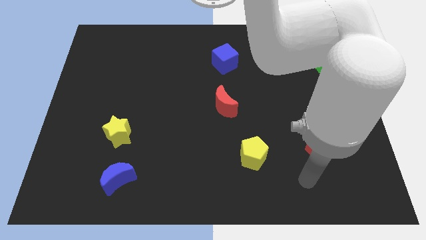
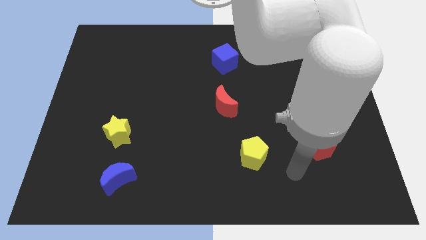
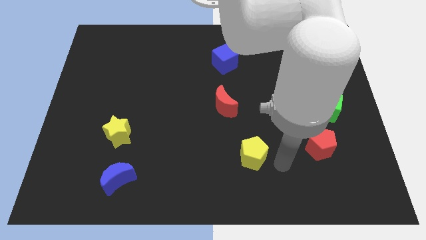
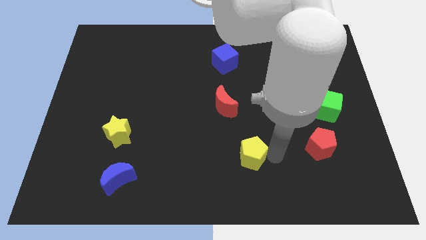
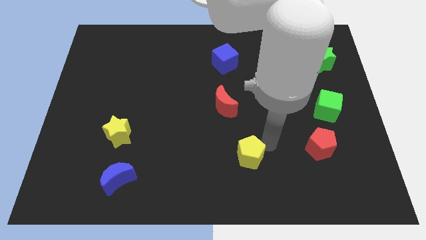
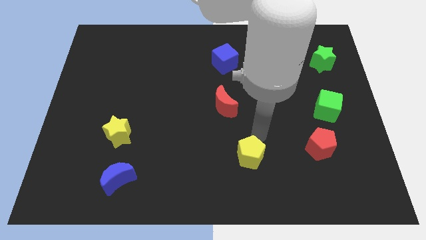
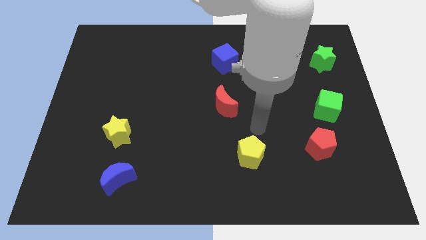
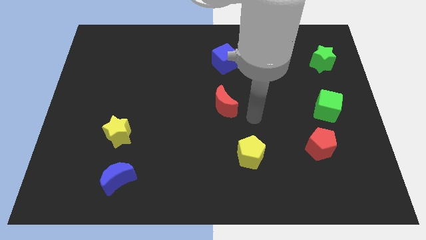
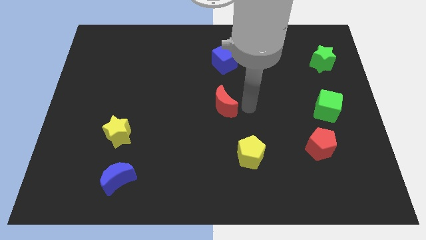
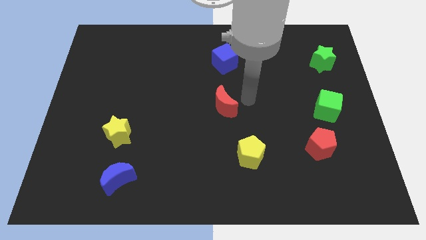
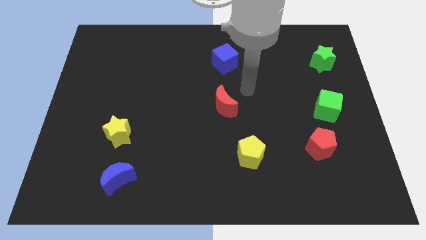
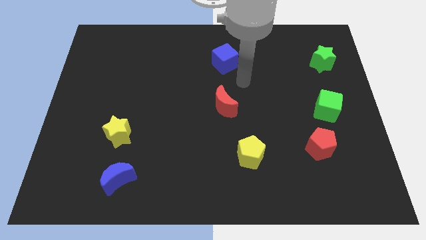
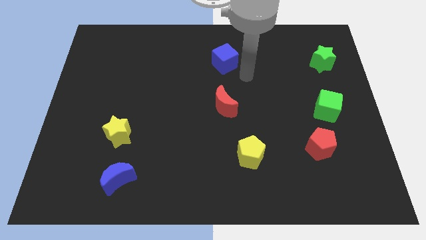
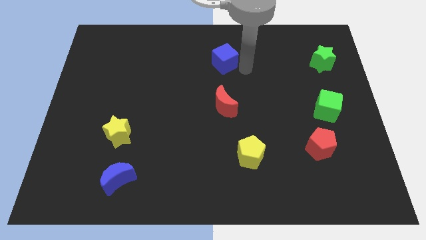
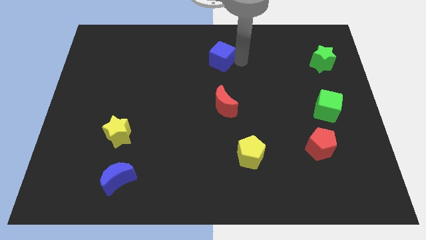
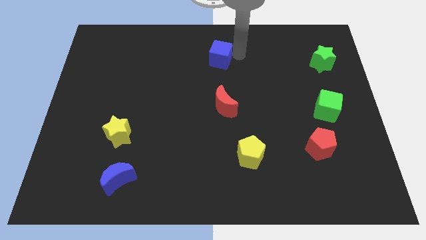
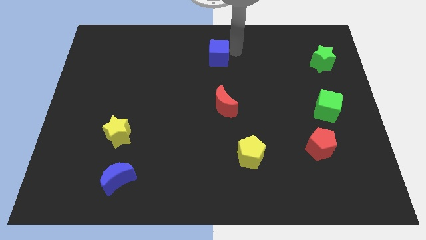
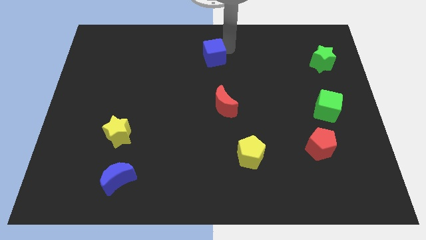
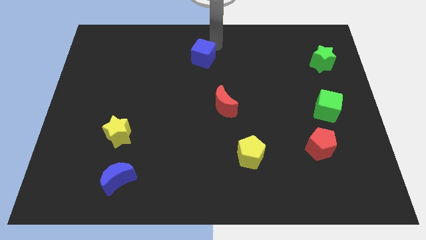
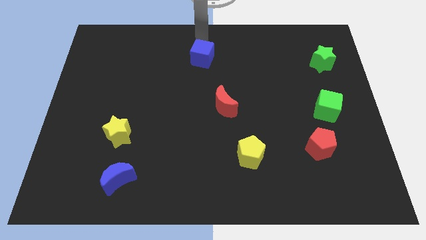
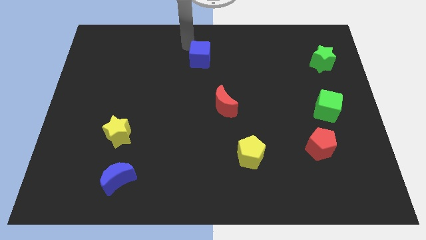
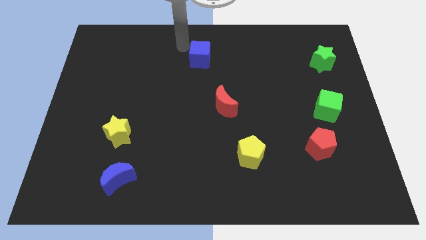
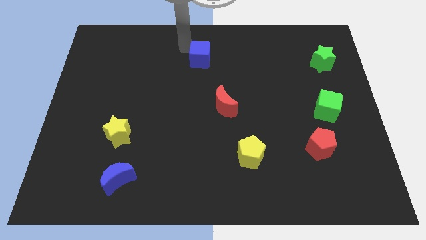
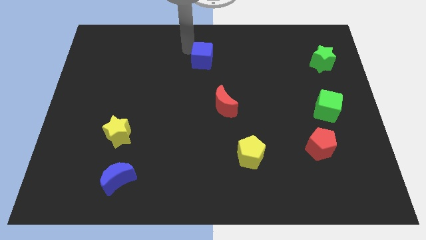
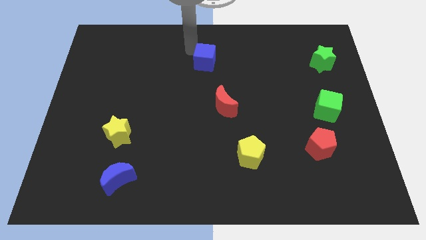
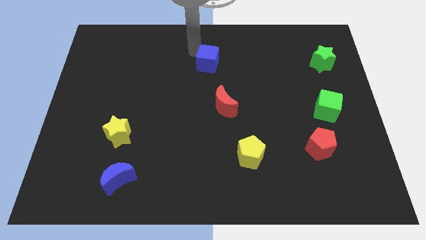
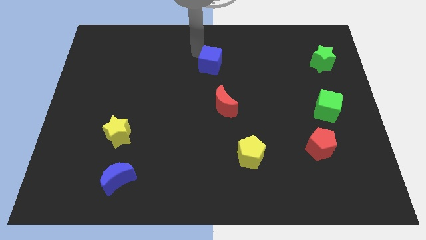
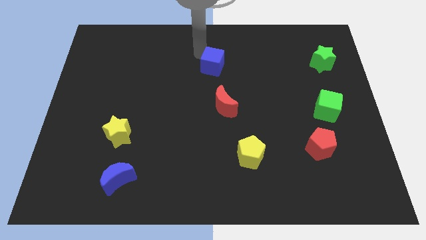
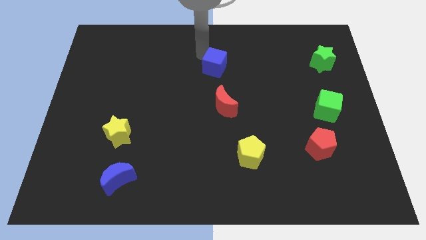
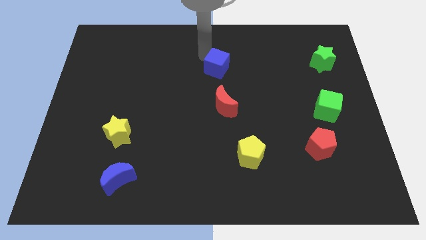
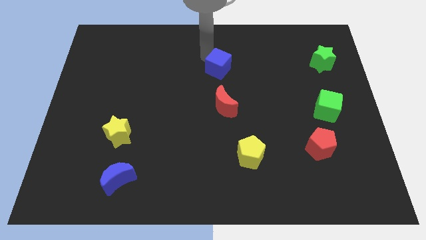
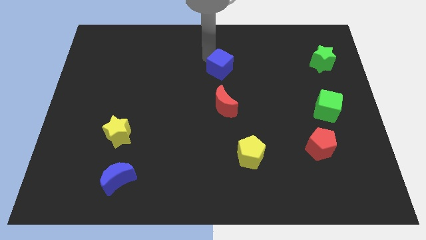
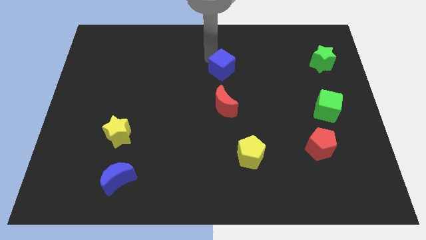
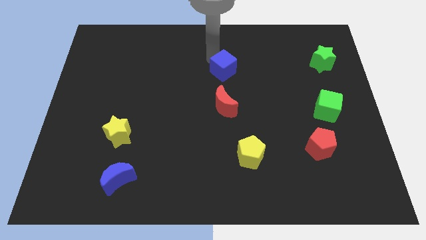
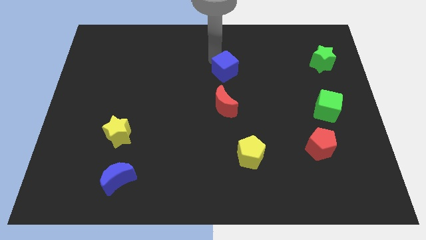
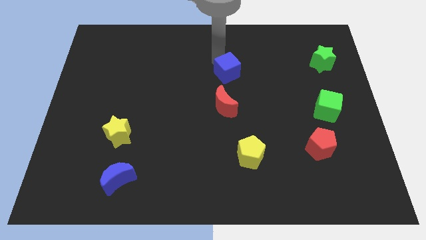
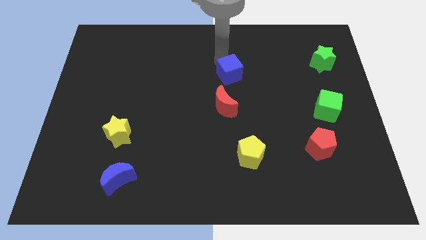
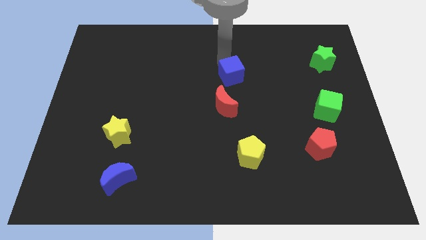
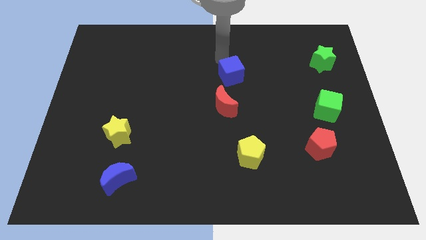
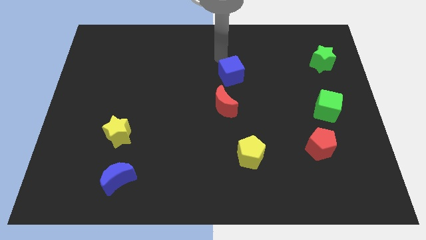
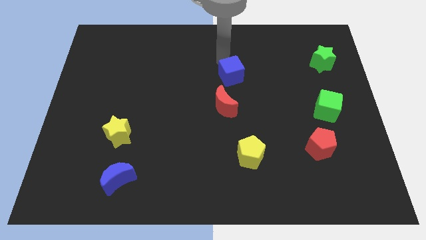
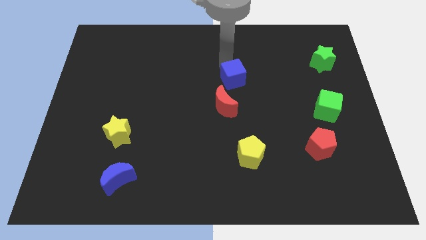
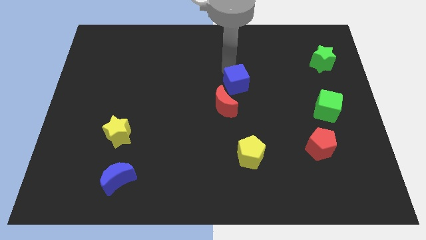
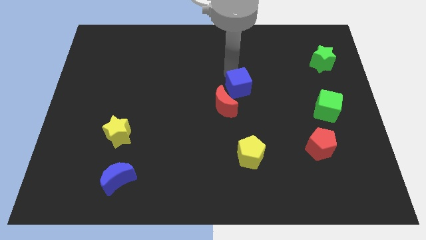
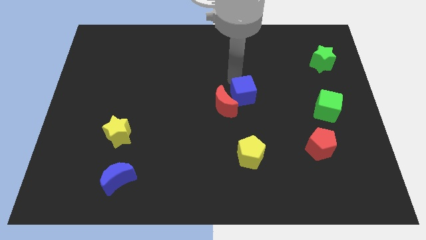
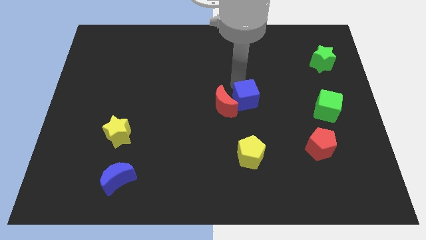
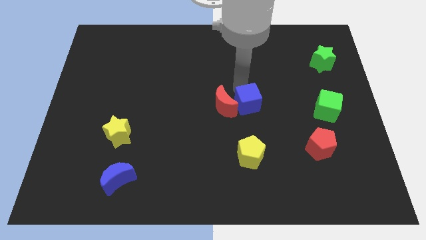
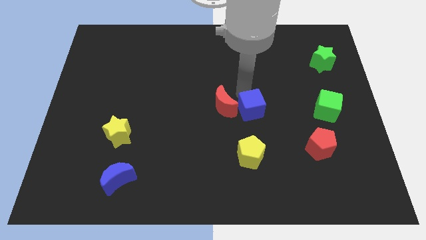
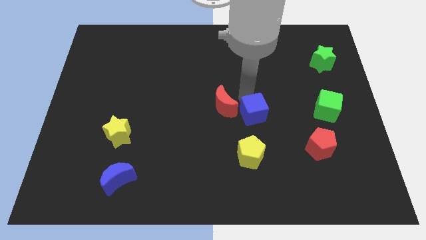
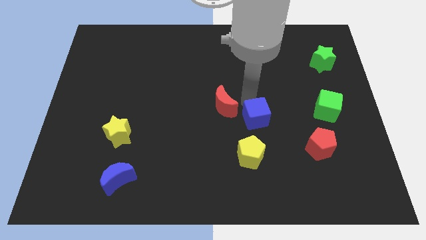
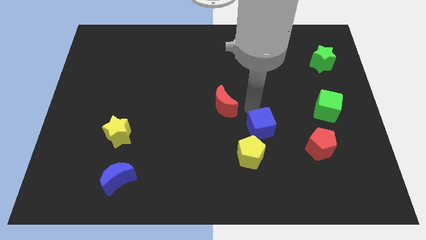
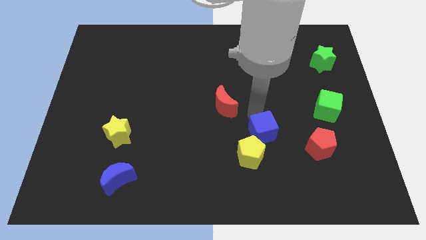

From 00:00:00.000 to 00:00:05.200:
slide the blue cube to the left of the red pentagon

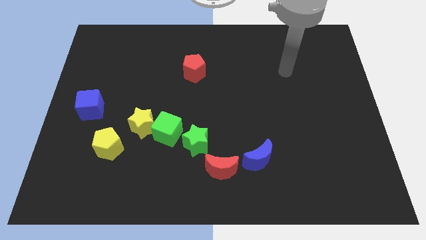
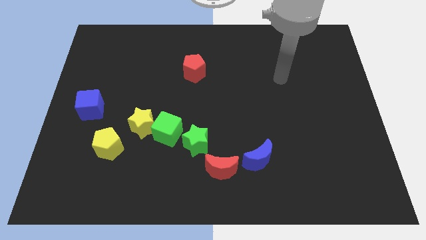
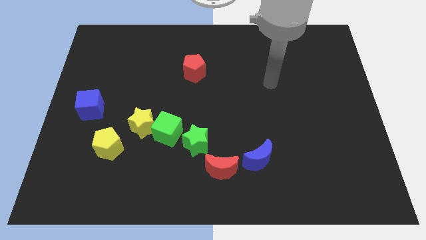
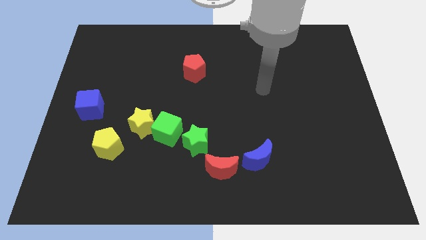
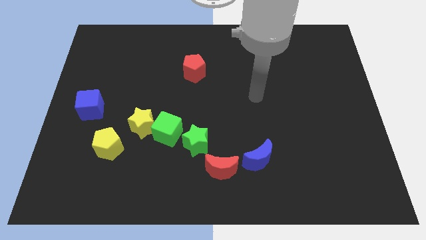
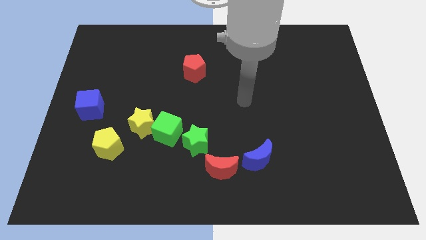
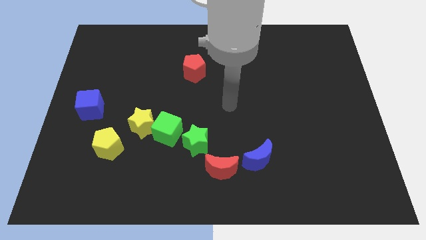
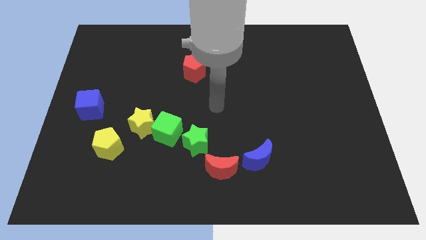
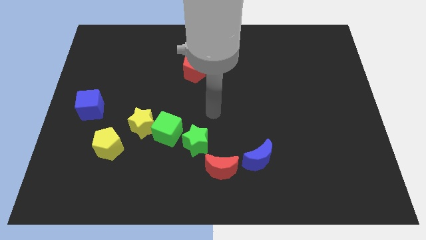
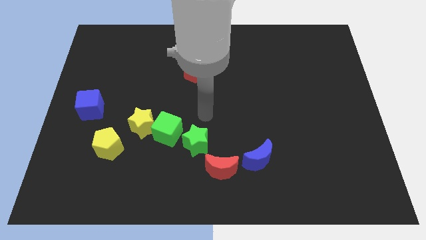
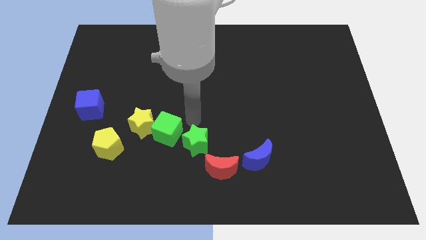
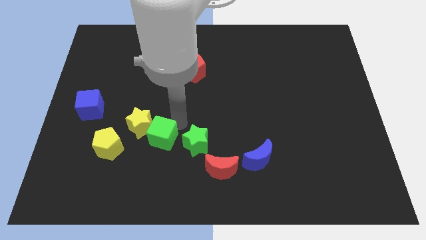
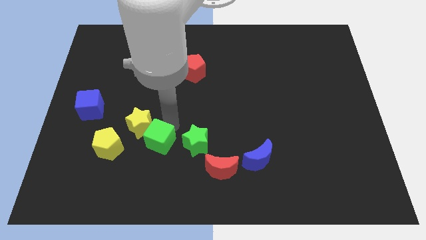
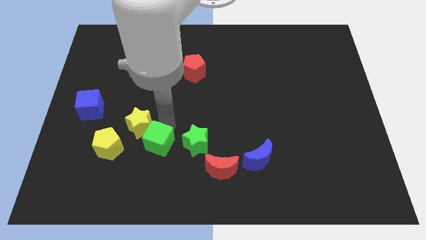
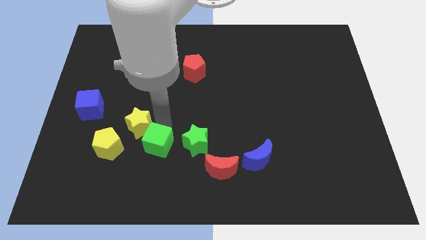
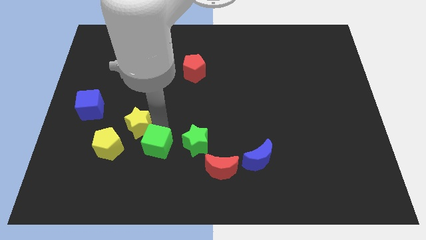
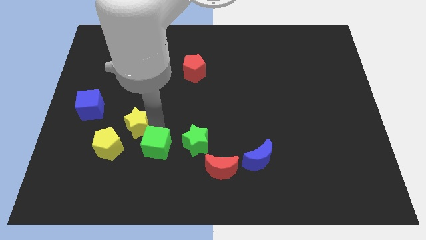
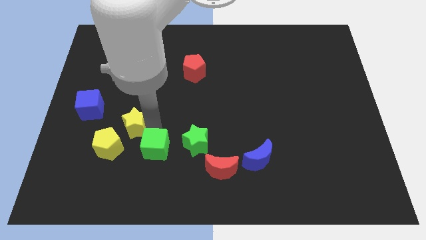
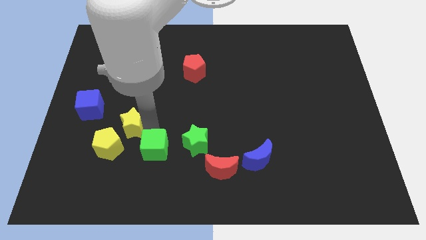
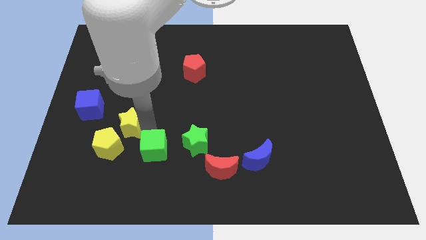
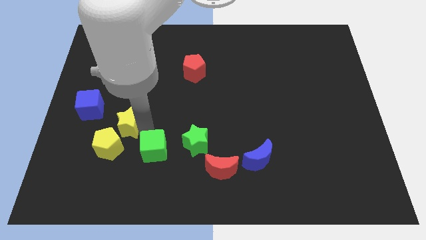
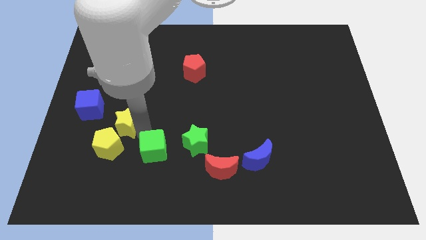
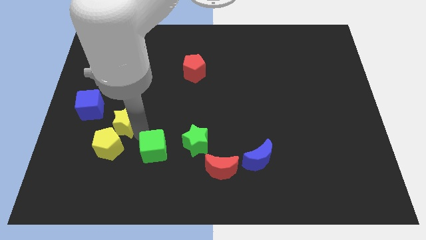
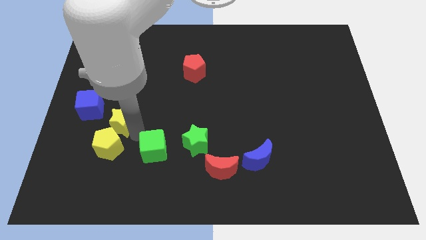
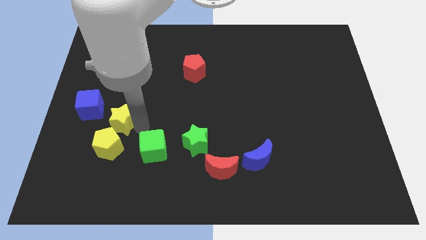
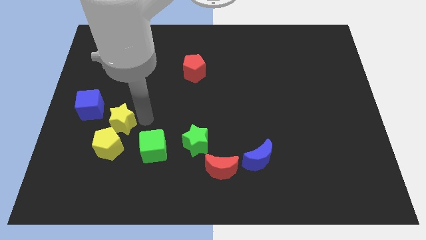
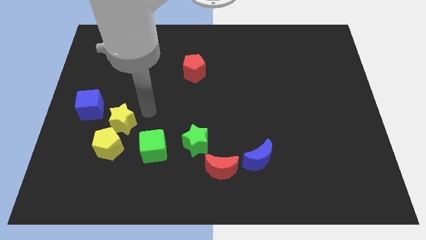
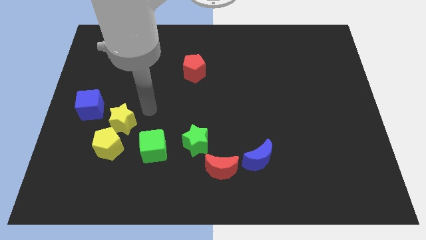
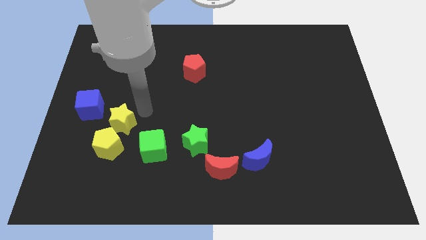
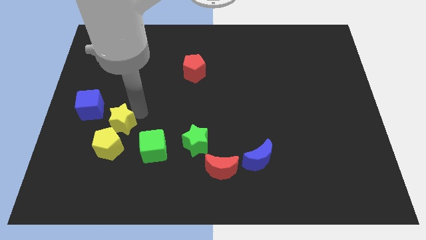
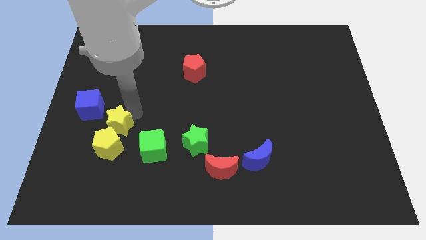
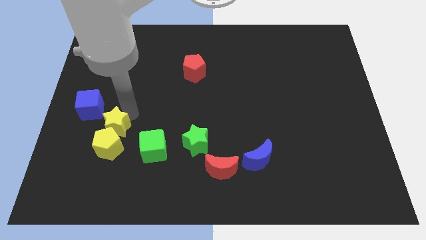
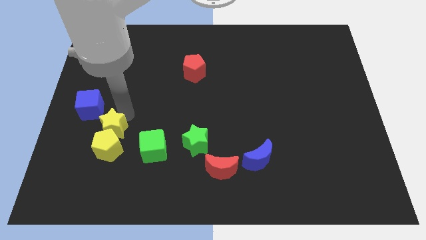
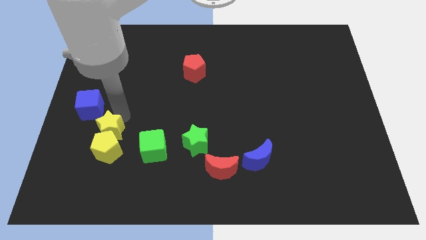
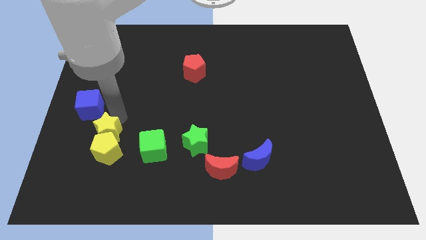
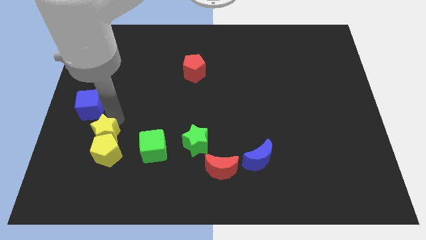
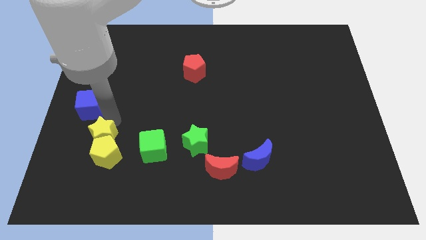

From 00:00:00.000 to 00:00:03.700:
put the yellow star to the bottom side of the blue cube
